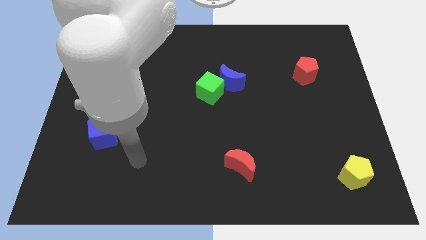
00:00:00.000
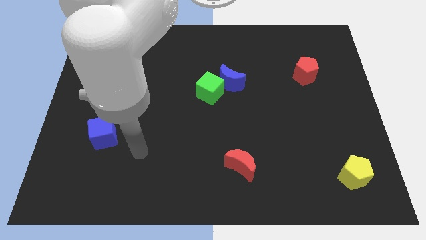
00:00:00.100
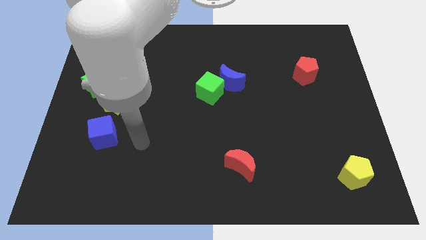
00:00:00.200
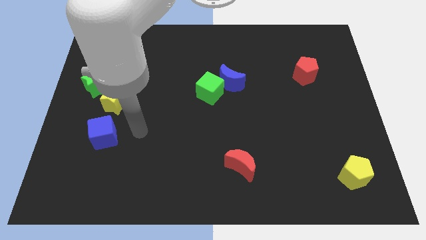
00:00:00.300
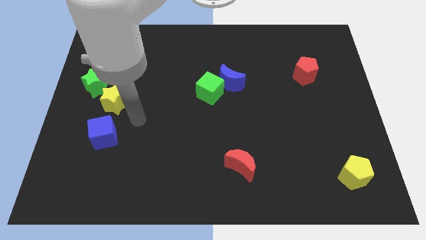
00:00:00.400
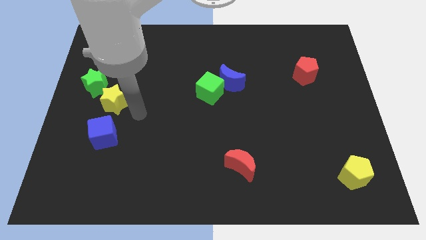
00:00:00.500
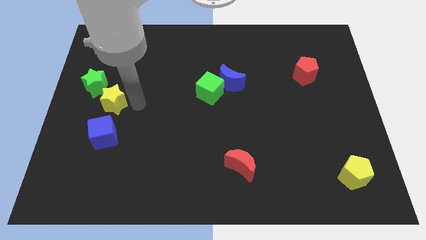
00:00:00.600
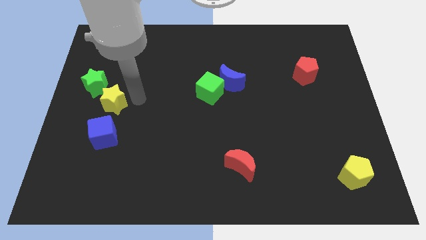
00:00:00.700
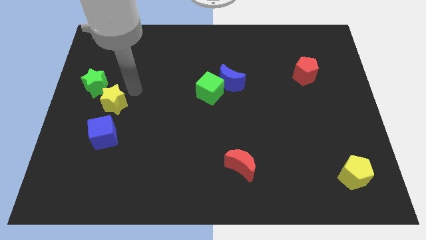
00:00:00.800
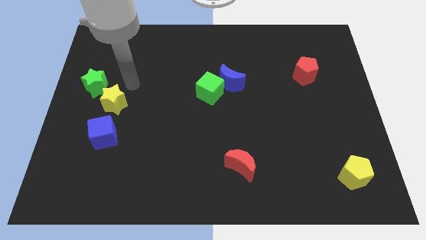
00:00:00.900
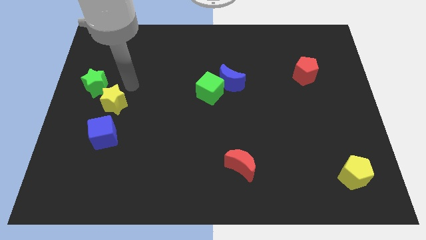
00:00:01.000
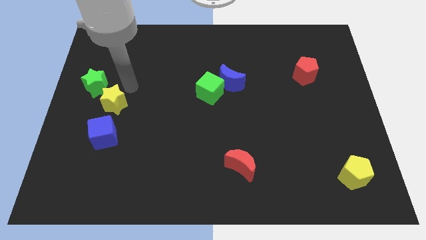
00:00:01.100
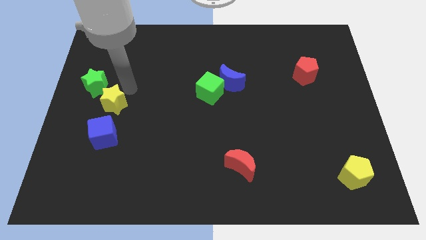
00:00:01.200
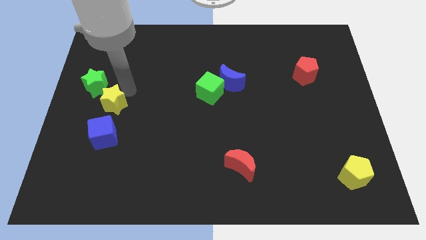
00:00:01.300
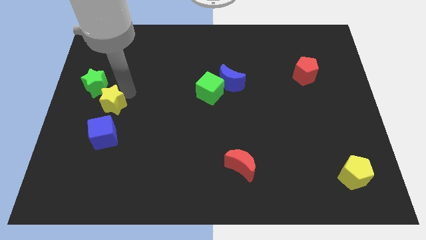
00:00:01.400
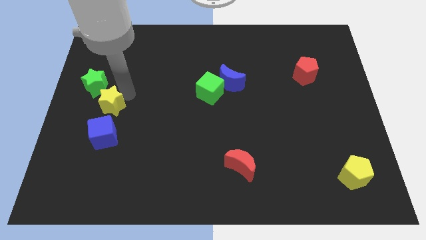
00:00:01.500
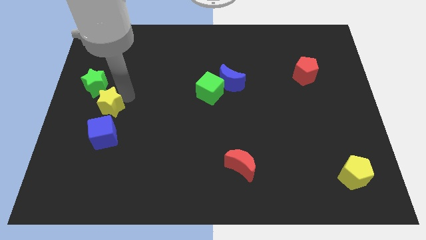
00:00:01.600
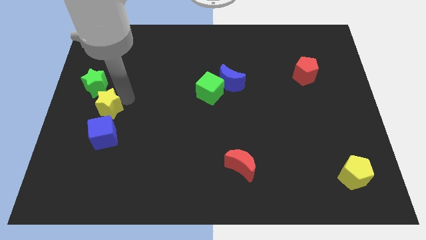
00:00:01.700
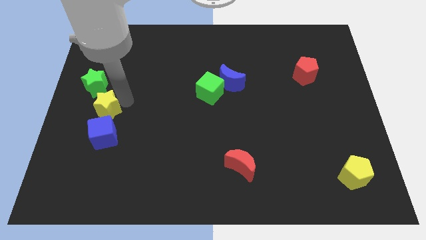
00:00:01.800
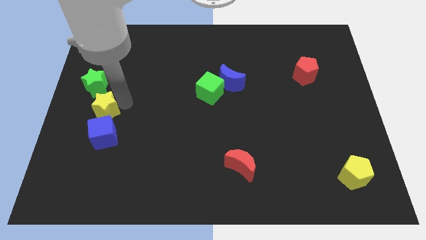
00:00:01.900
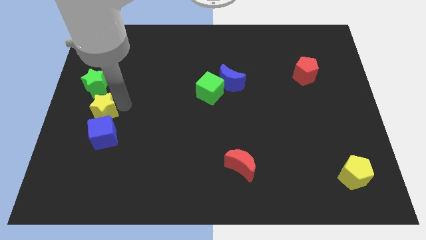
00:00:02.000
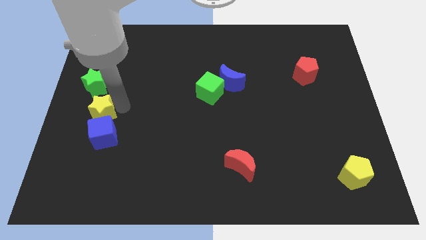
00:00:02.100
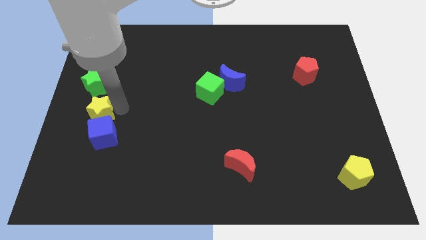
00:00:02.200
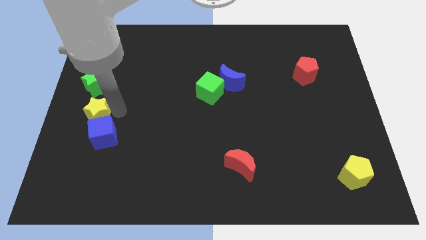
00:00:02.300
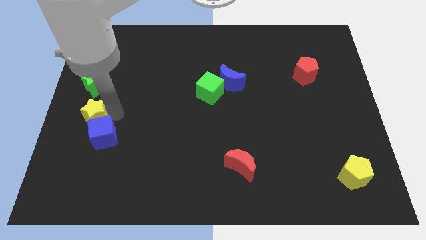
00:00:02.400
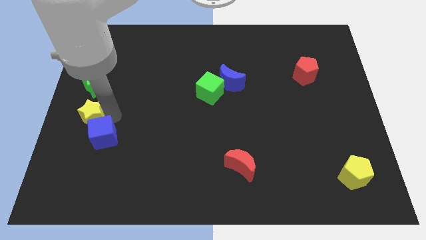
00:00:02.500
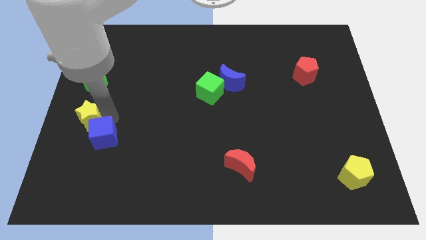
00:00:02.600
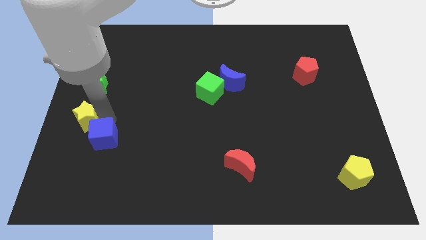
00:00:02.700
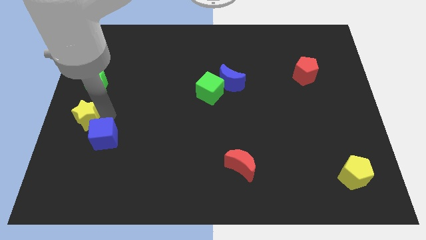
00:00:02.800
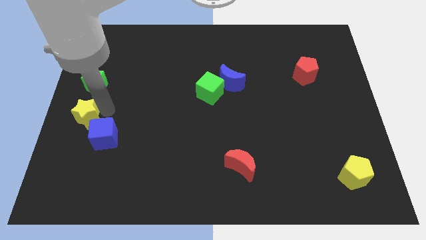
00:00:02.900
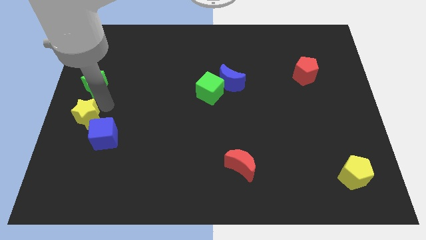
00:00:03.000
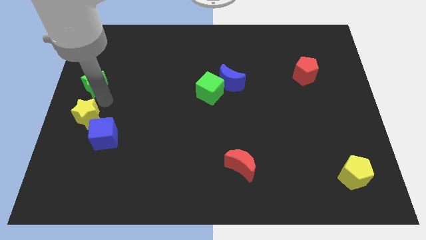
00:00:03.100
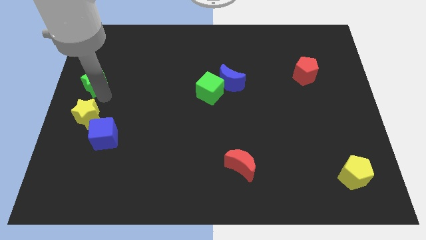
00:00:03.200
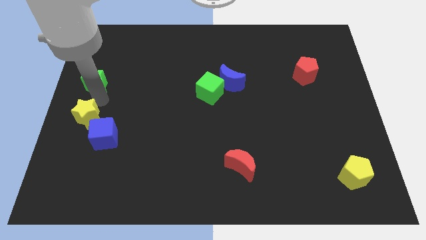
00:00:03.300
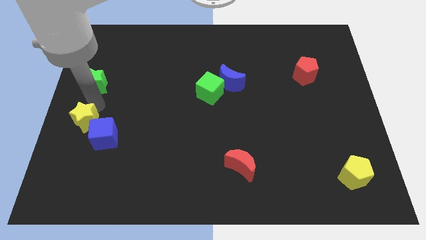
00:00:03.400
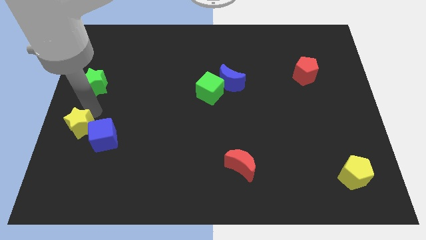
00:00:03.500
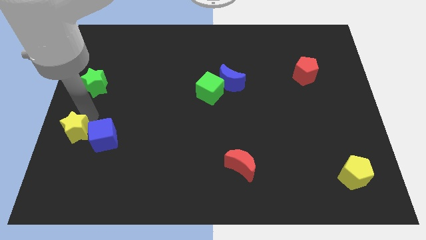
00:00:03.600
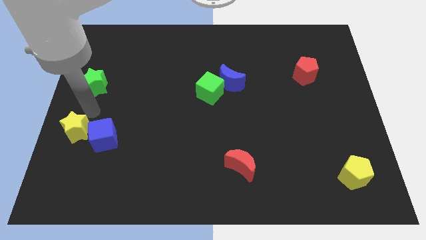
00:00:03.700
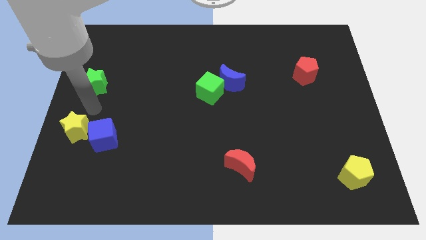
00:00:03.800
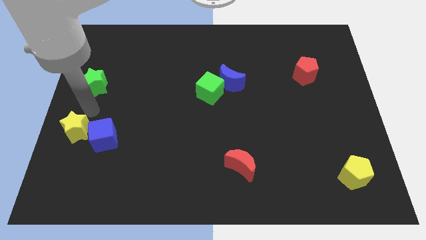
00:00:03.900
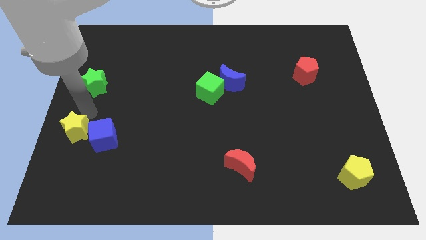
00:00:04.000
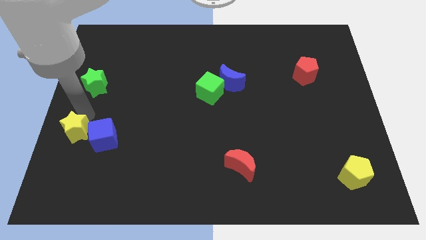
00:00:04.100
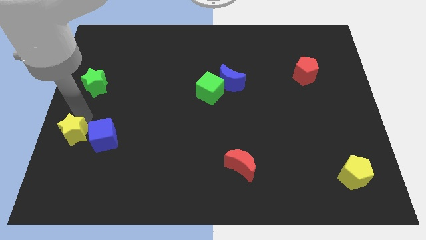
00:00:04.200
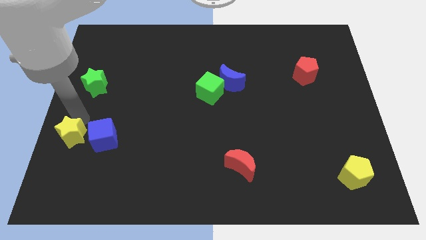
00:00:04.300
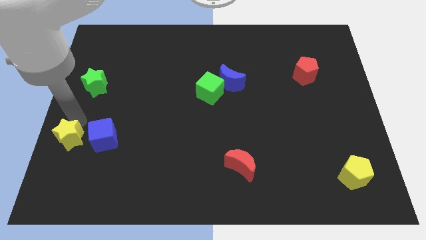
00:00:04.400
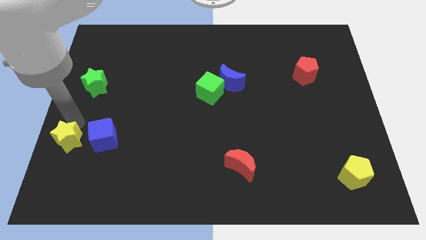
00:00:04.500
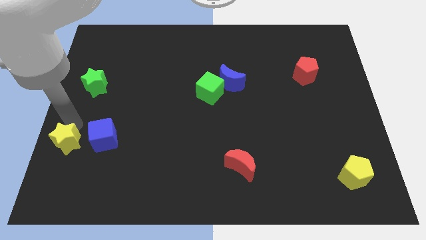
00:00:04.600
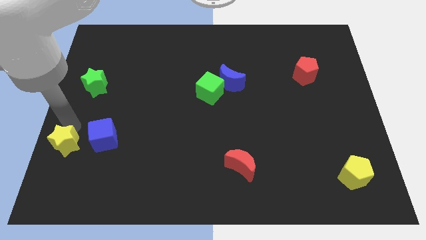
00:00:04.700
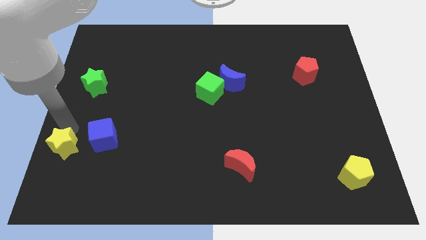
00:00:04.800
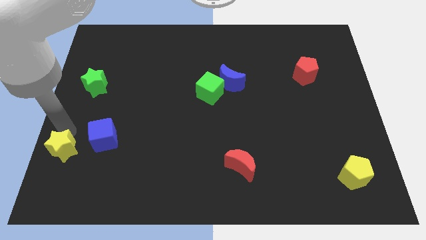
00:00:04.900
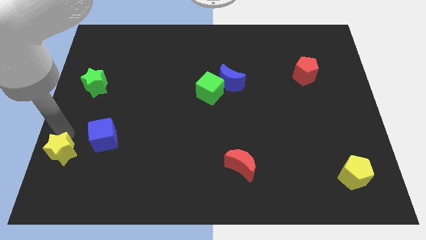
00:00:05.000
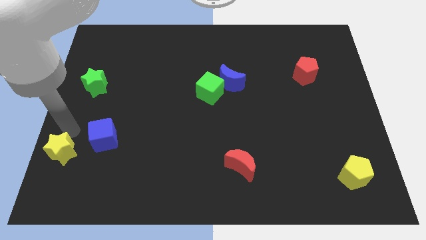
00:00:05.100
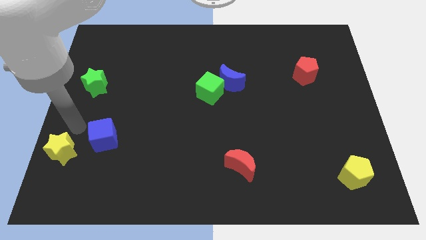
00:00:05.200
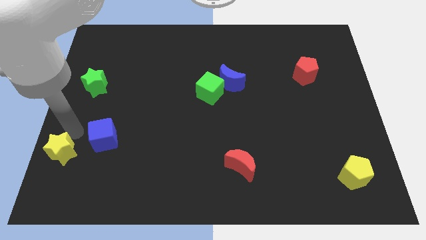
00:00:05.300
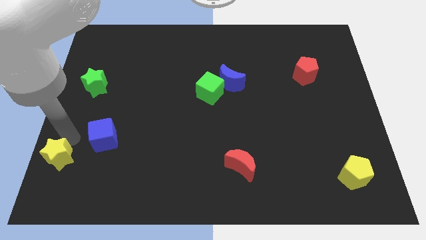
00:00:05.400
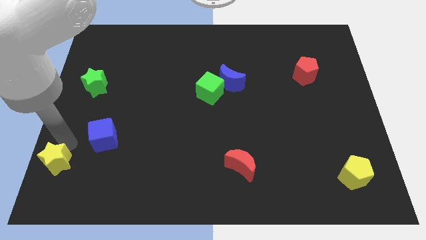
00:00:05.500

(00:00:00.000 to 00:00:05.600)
push the yellow star to the bottom left

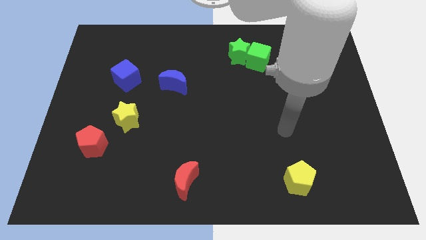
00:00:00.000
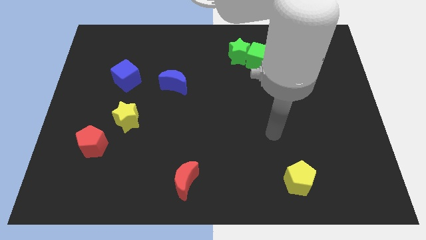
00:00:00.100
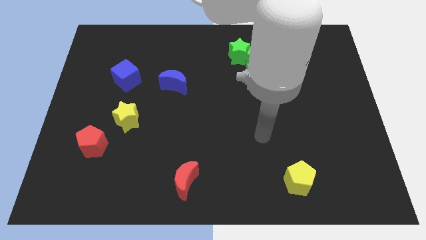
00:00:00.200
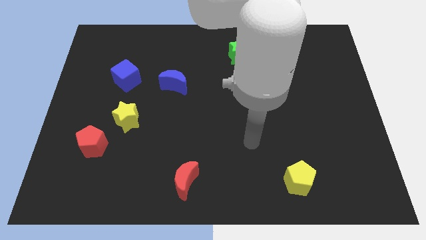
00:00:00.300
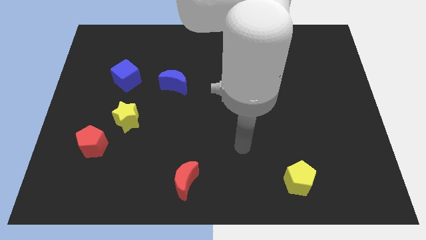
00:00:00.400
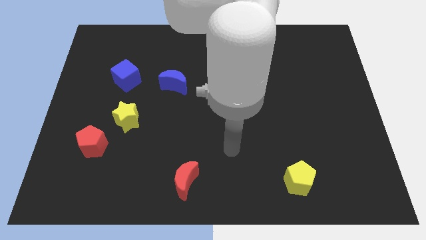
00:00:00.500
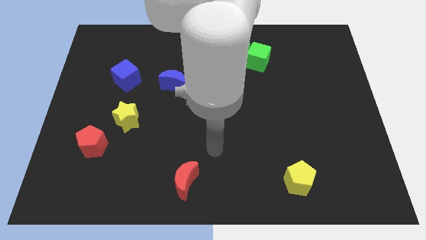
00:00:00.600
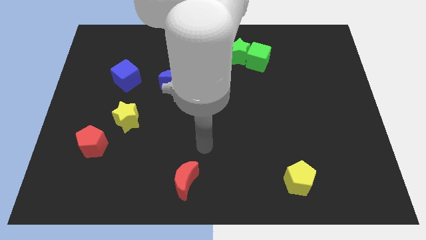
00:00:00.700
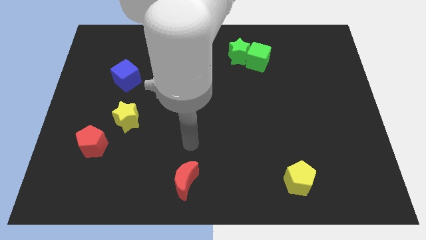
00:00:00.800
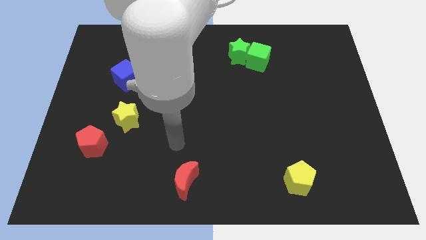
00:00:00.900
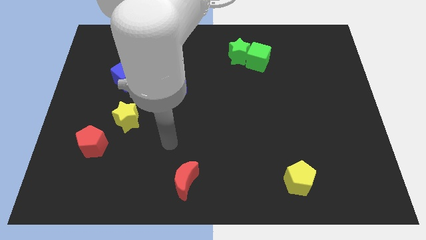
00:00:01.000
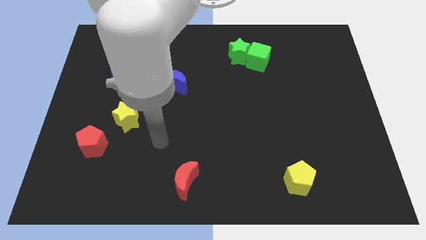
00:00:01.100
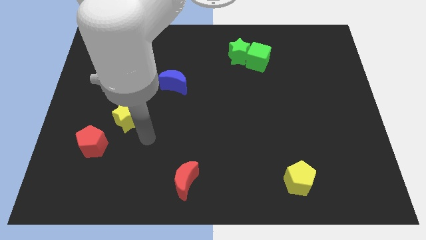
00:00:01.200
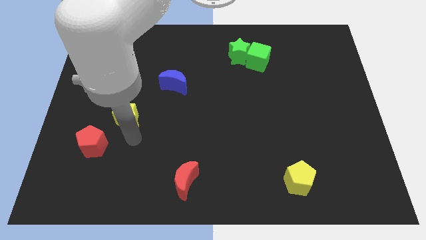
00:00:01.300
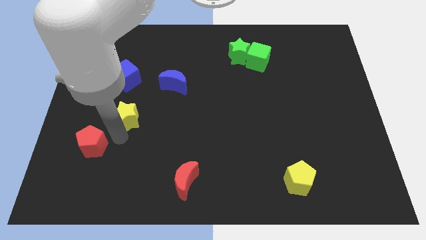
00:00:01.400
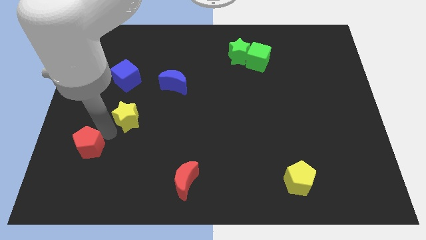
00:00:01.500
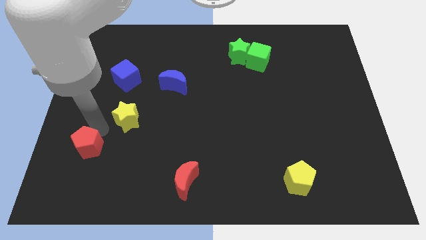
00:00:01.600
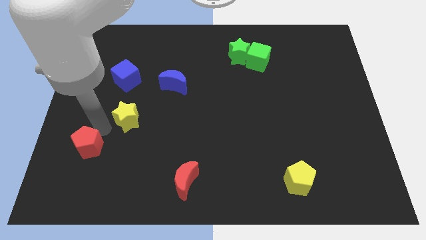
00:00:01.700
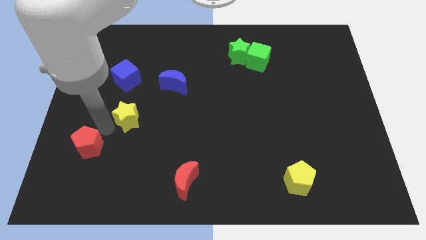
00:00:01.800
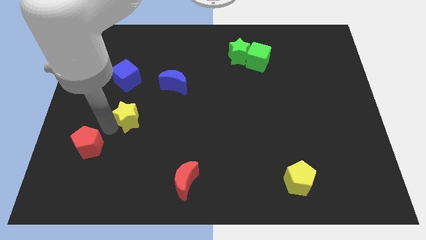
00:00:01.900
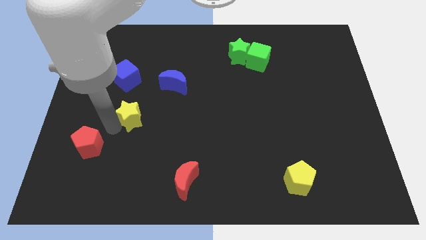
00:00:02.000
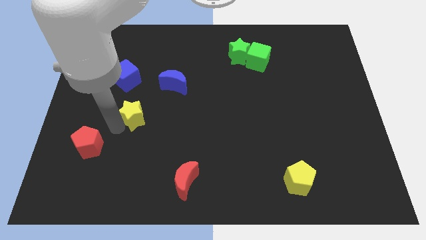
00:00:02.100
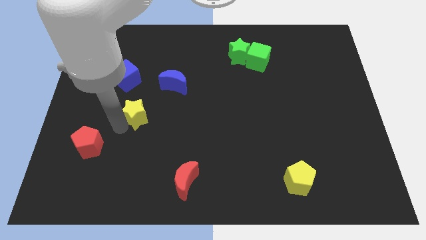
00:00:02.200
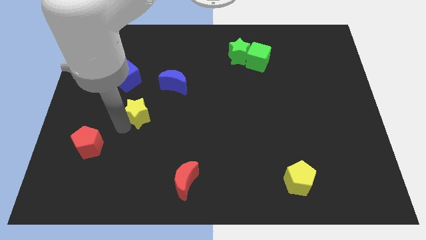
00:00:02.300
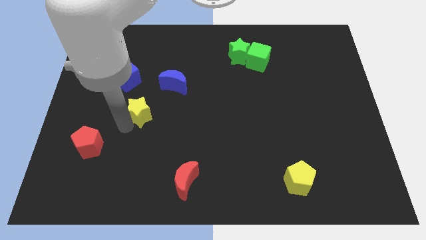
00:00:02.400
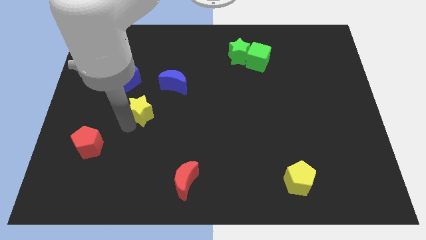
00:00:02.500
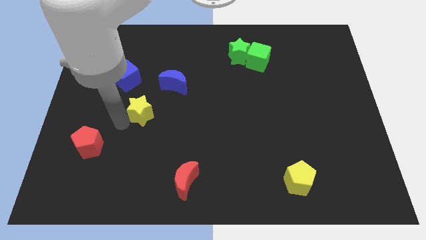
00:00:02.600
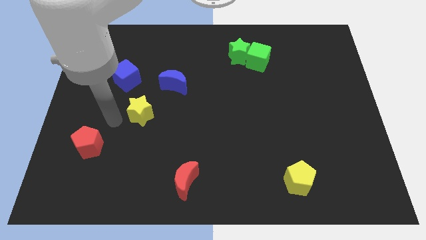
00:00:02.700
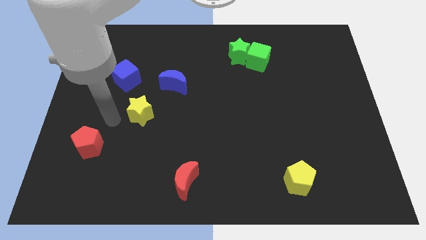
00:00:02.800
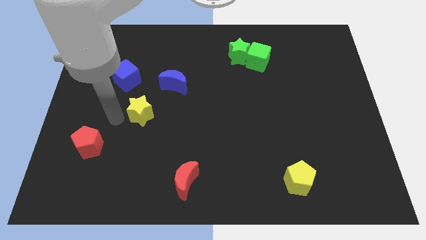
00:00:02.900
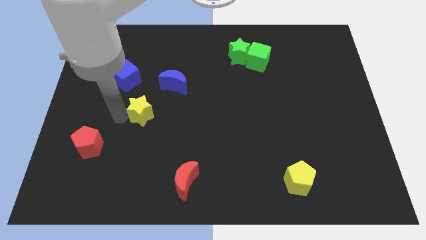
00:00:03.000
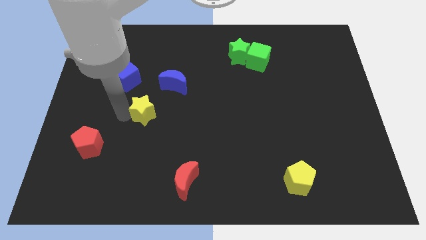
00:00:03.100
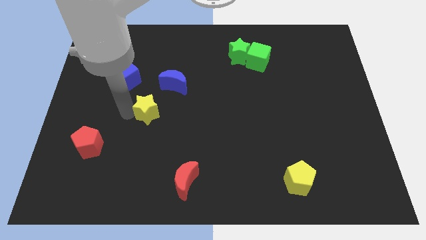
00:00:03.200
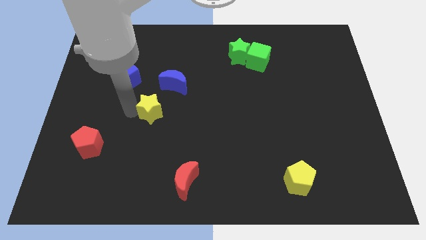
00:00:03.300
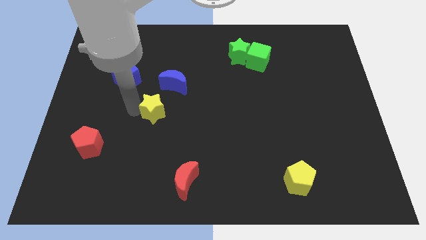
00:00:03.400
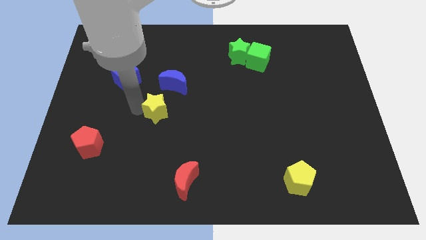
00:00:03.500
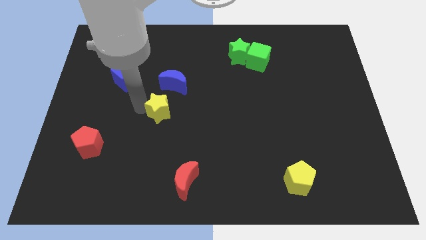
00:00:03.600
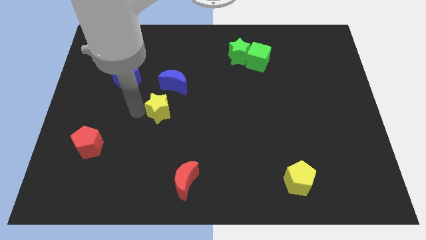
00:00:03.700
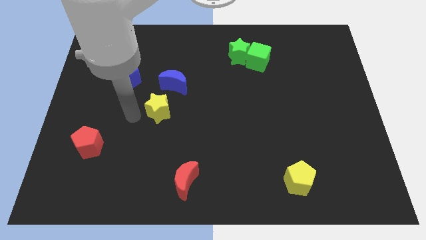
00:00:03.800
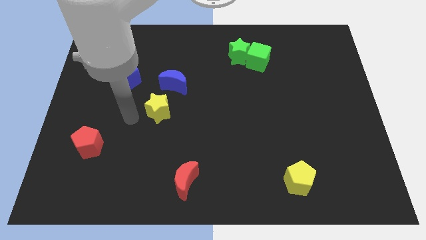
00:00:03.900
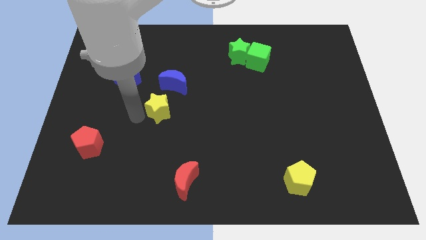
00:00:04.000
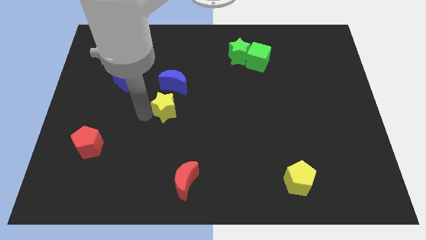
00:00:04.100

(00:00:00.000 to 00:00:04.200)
move the yellow star to the center of the board
